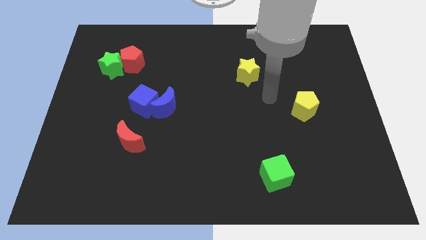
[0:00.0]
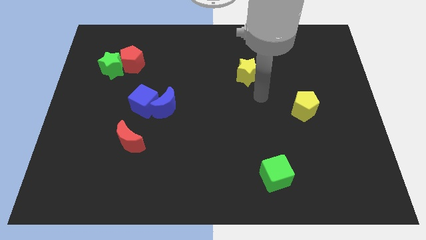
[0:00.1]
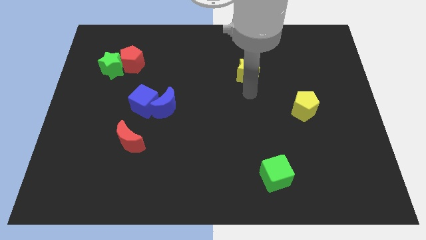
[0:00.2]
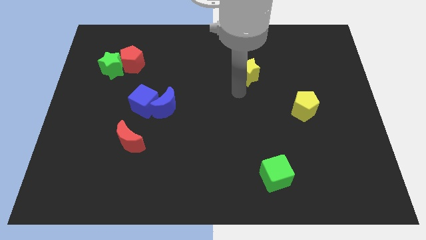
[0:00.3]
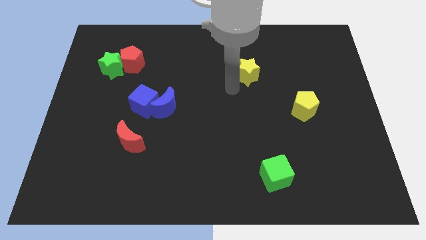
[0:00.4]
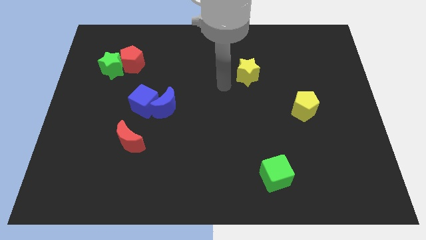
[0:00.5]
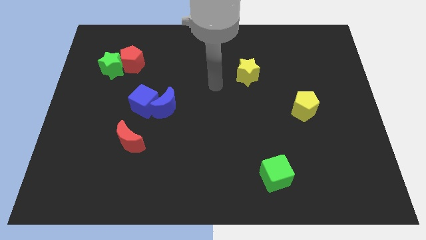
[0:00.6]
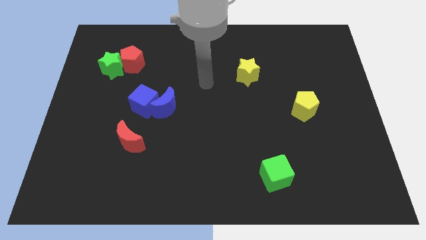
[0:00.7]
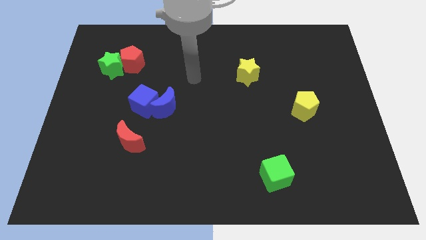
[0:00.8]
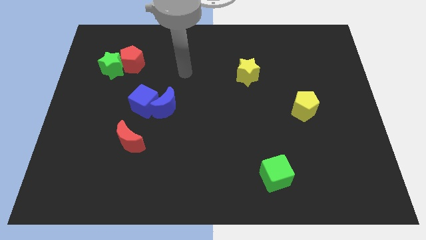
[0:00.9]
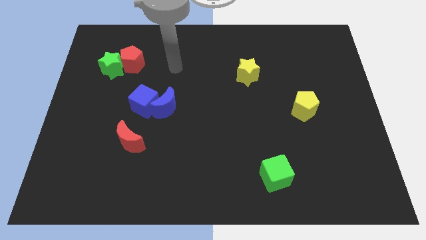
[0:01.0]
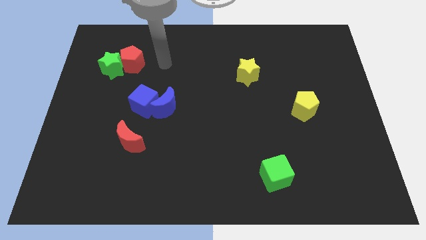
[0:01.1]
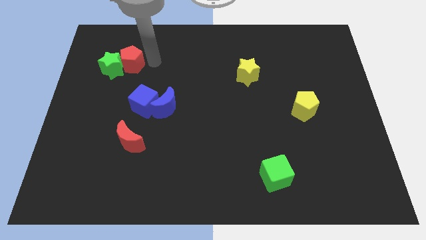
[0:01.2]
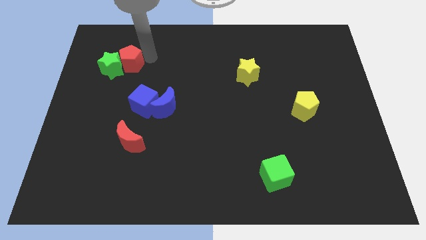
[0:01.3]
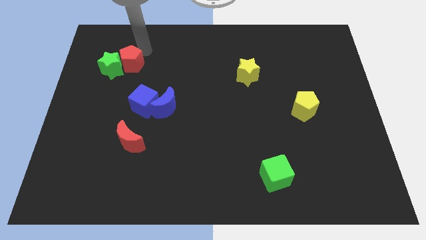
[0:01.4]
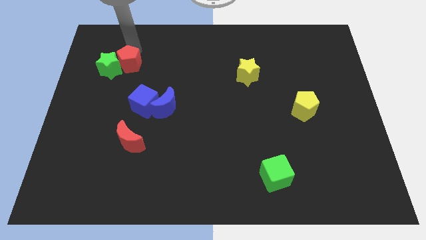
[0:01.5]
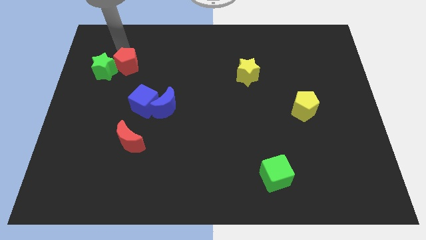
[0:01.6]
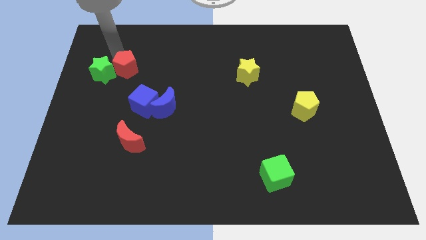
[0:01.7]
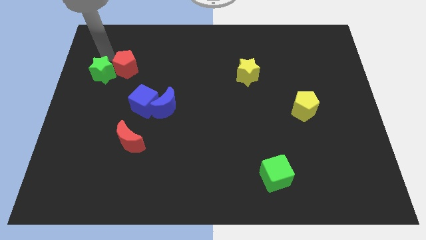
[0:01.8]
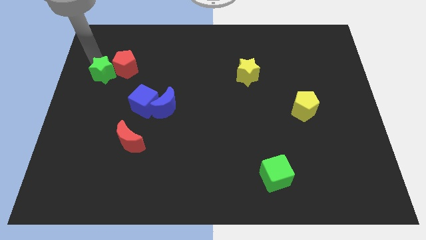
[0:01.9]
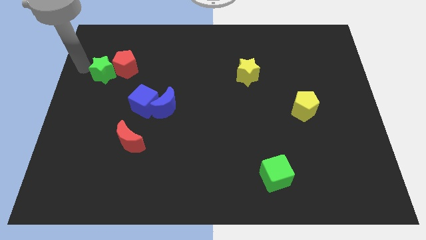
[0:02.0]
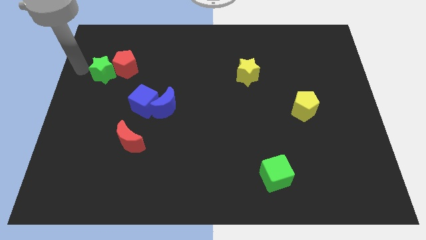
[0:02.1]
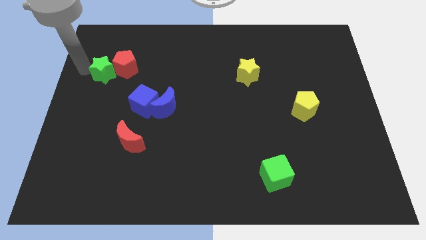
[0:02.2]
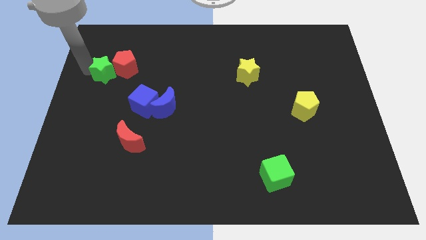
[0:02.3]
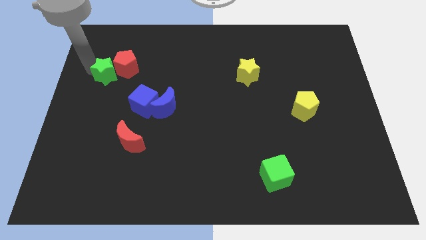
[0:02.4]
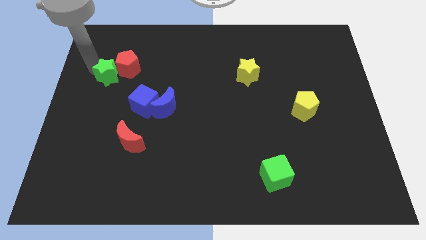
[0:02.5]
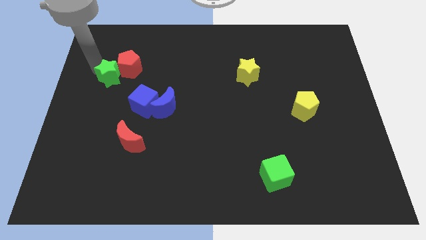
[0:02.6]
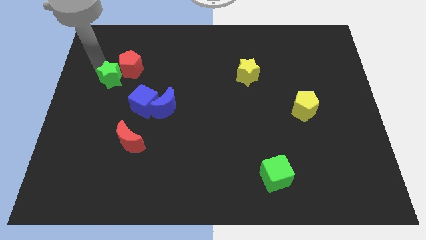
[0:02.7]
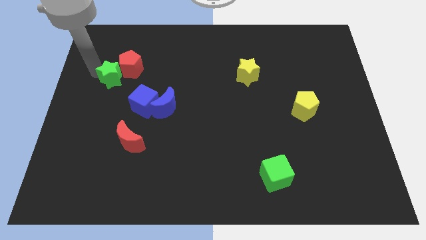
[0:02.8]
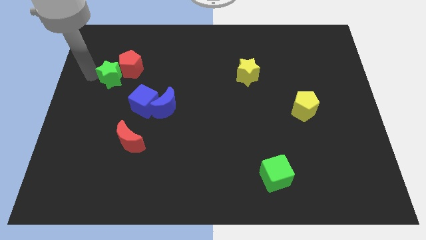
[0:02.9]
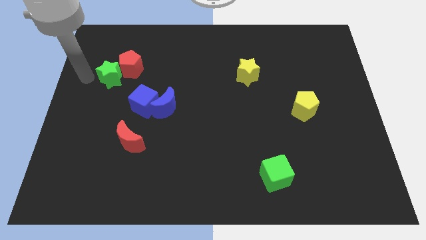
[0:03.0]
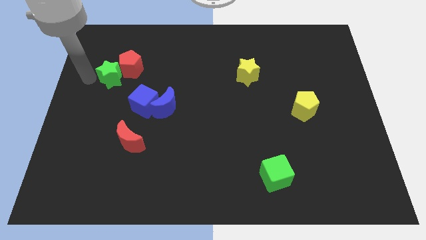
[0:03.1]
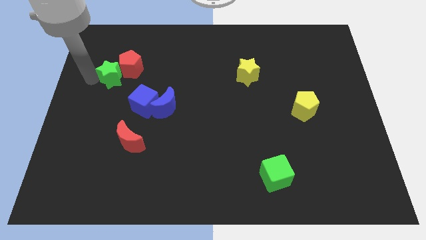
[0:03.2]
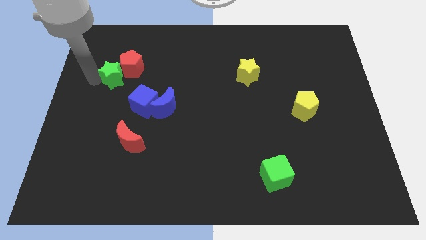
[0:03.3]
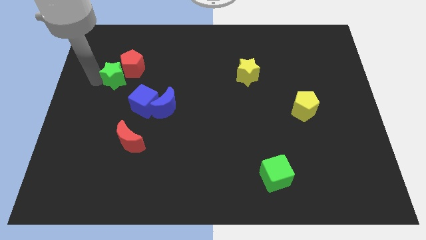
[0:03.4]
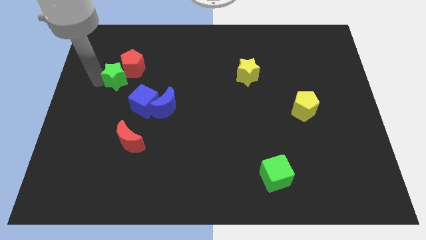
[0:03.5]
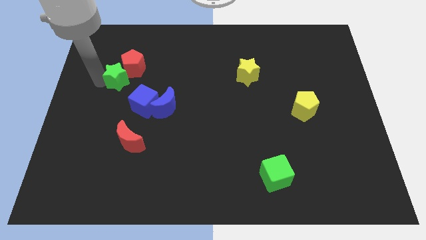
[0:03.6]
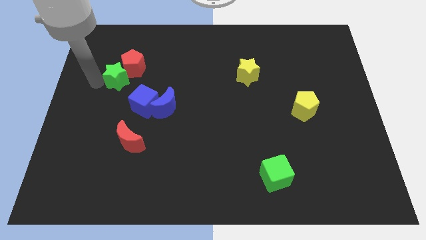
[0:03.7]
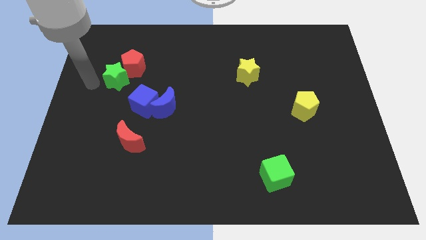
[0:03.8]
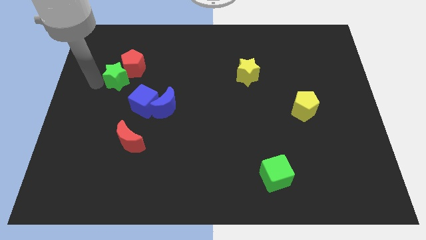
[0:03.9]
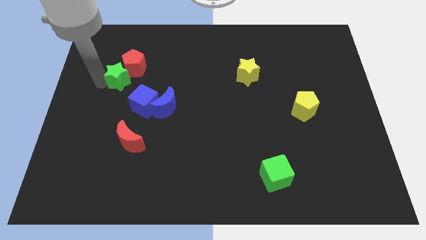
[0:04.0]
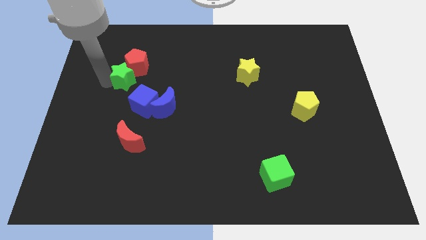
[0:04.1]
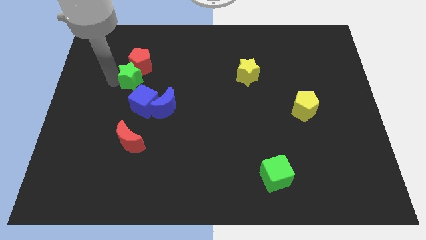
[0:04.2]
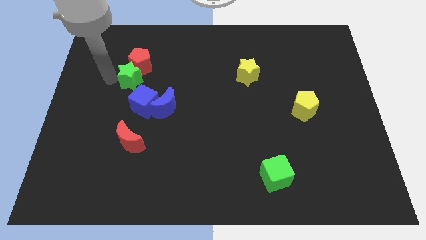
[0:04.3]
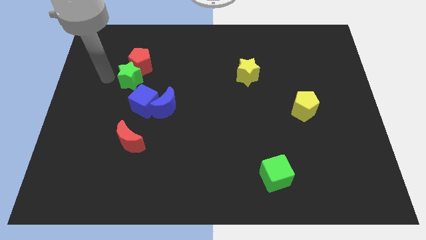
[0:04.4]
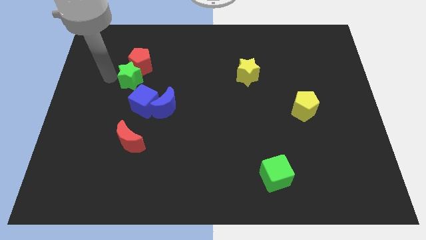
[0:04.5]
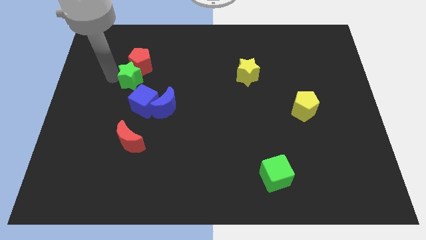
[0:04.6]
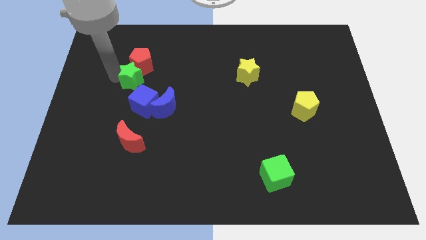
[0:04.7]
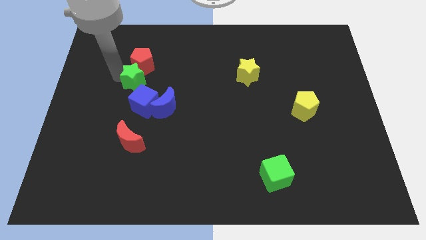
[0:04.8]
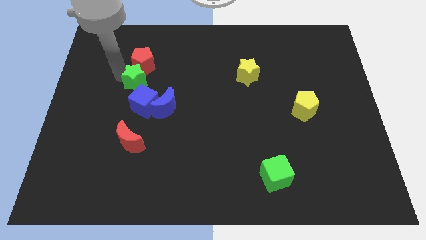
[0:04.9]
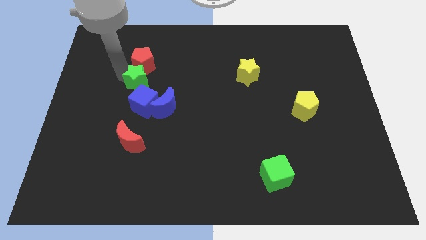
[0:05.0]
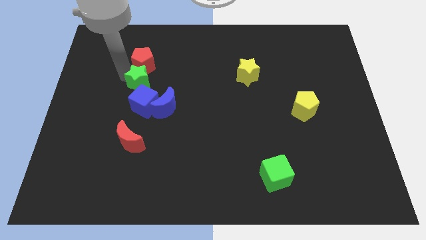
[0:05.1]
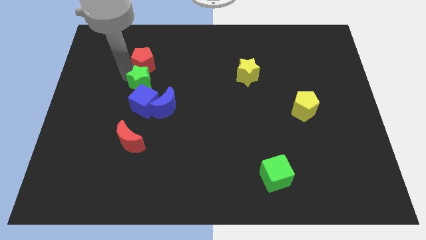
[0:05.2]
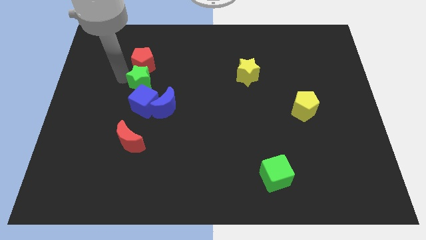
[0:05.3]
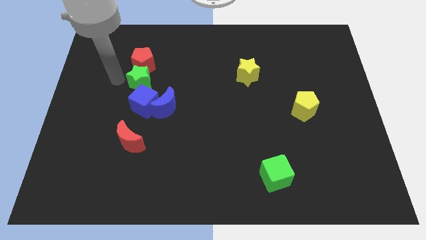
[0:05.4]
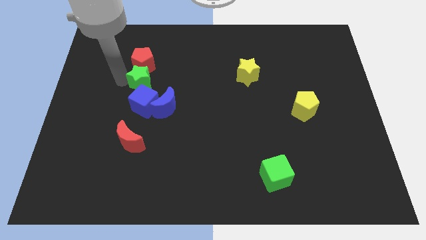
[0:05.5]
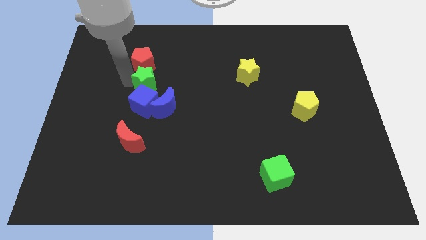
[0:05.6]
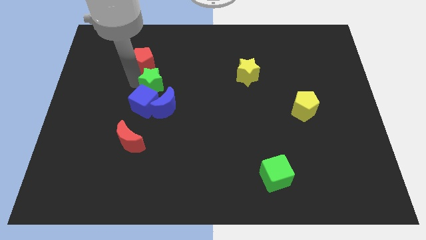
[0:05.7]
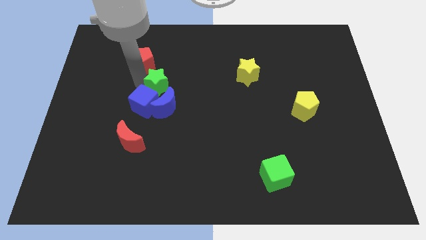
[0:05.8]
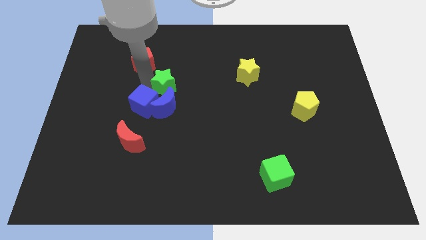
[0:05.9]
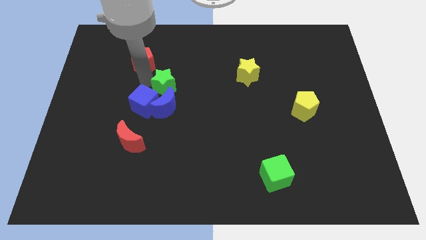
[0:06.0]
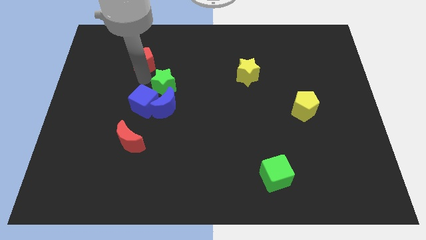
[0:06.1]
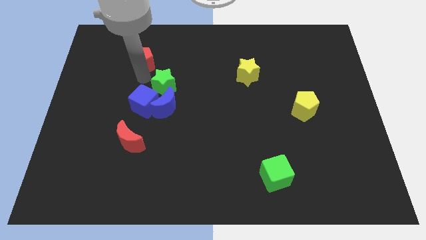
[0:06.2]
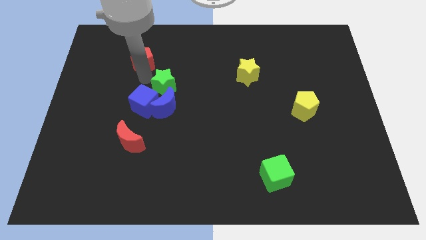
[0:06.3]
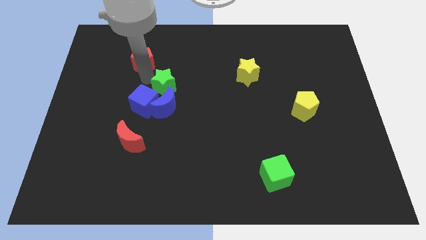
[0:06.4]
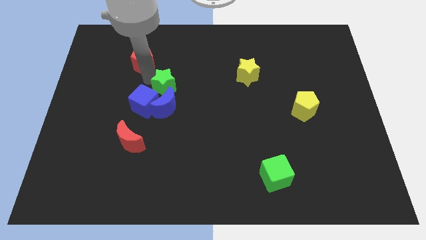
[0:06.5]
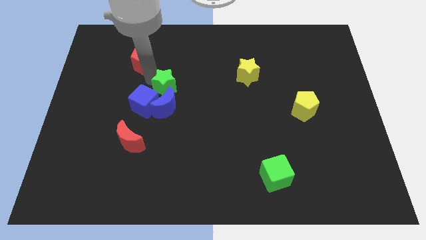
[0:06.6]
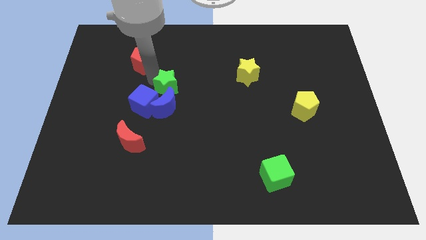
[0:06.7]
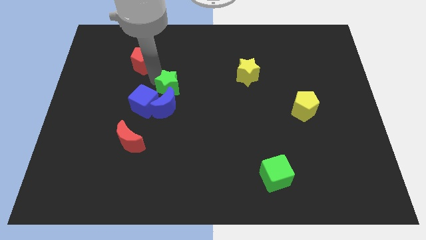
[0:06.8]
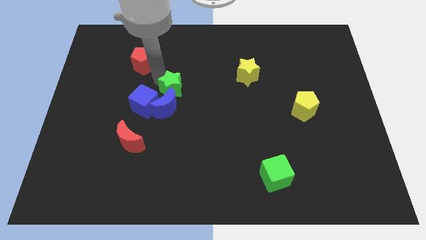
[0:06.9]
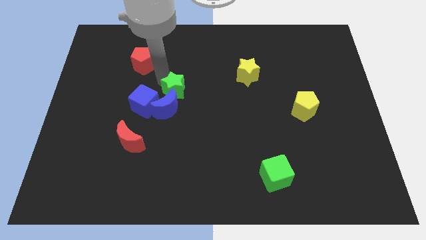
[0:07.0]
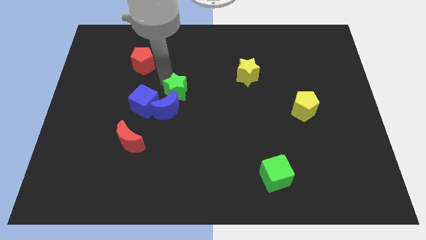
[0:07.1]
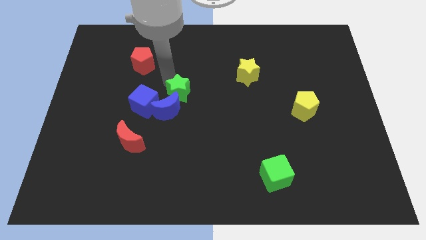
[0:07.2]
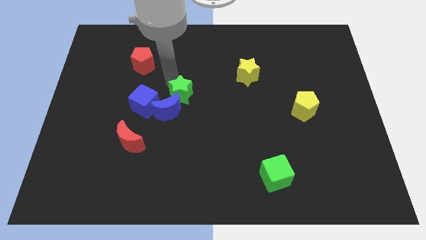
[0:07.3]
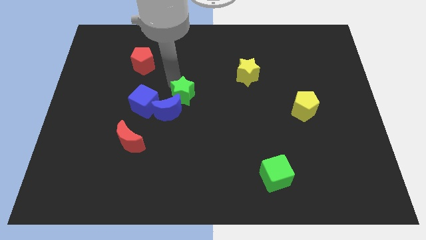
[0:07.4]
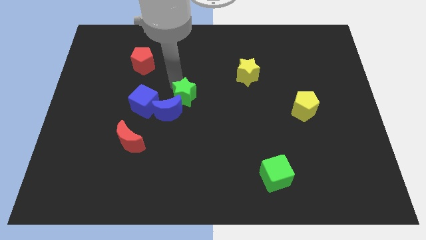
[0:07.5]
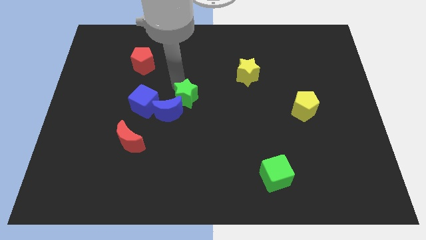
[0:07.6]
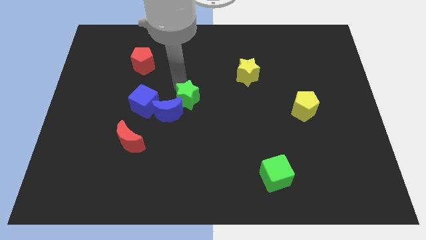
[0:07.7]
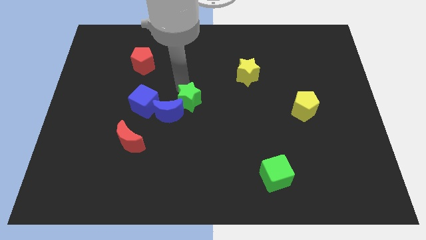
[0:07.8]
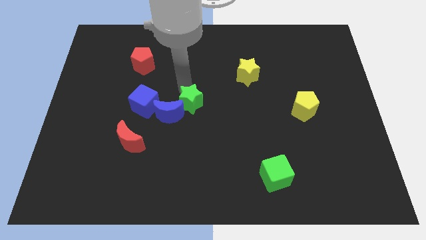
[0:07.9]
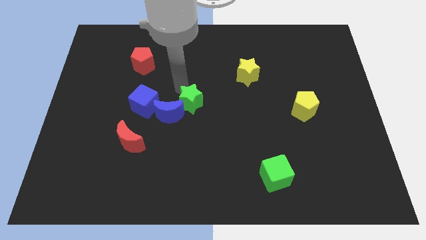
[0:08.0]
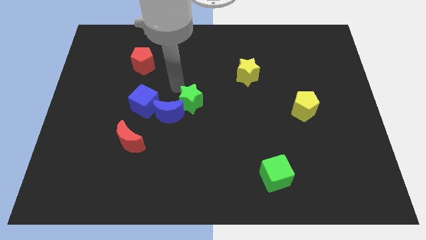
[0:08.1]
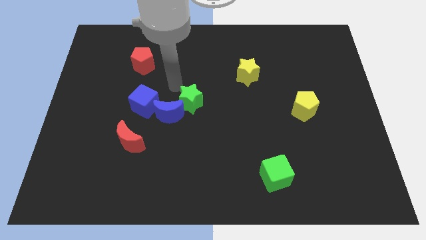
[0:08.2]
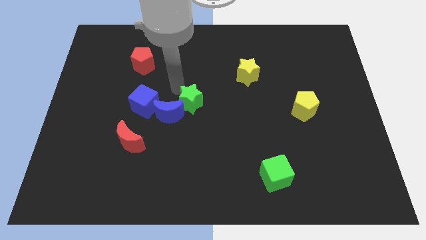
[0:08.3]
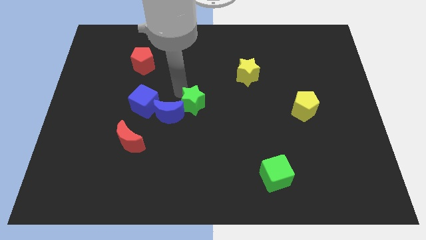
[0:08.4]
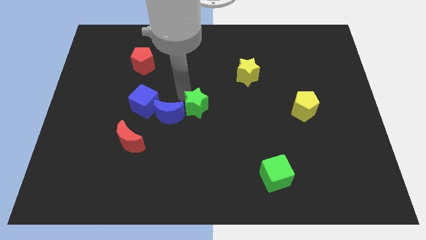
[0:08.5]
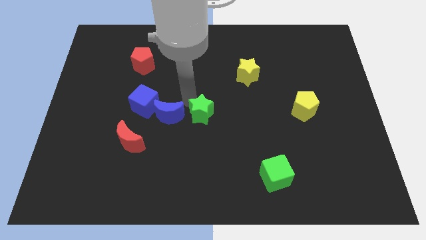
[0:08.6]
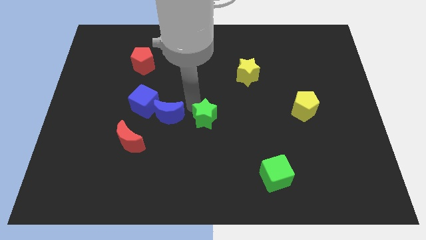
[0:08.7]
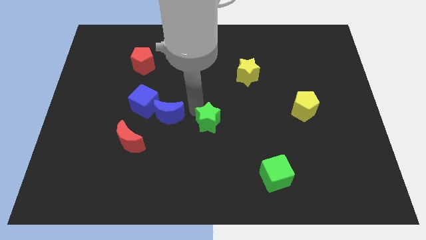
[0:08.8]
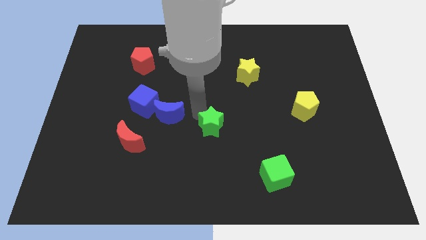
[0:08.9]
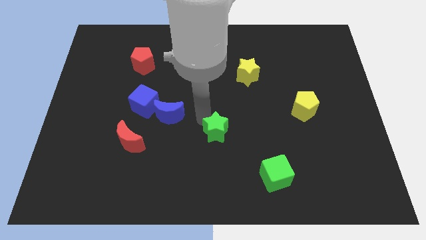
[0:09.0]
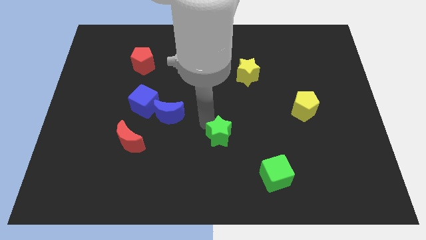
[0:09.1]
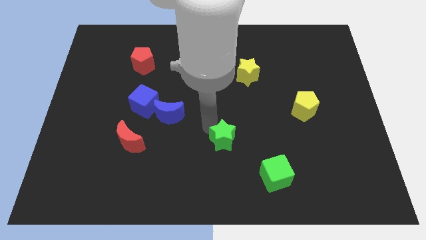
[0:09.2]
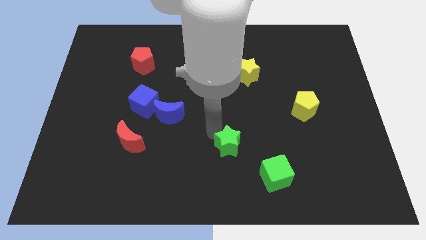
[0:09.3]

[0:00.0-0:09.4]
put the green star diagonally up and to the left of the green cube
